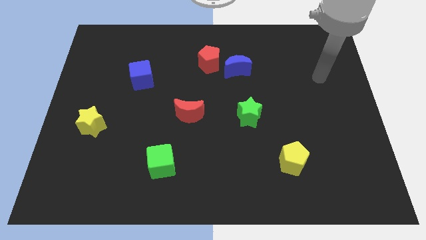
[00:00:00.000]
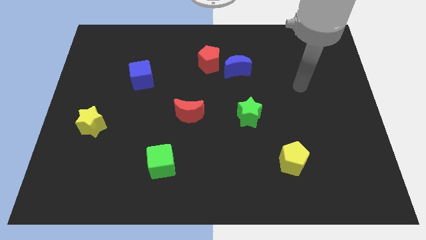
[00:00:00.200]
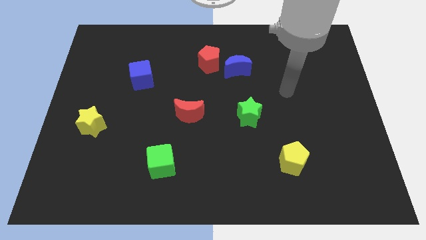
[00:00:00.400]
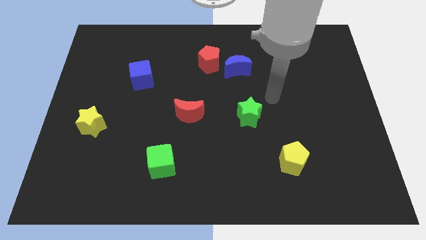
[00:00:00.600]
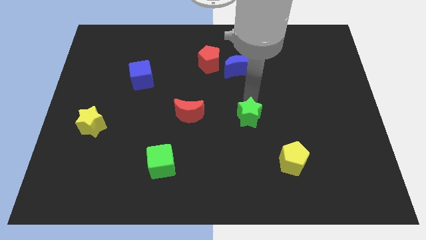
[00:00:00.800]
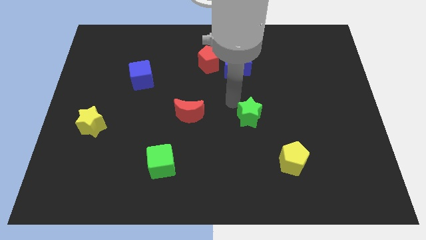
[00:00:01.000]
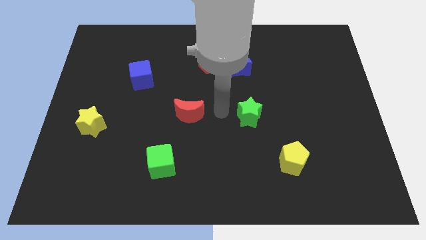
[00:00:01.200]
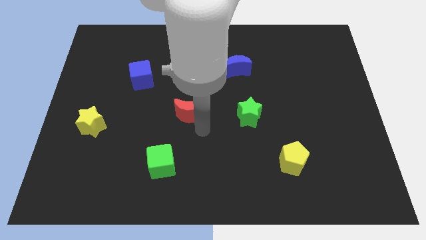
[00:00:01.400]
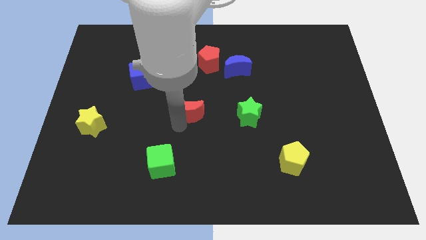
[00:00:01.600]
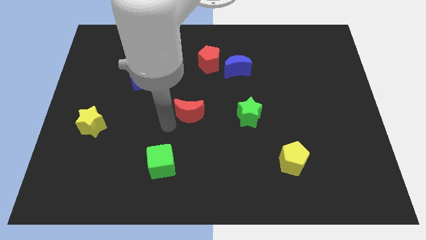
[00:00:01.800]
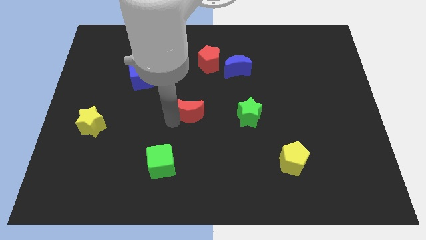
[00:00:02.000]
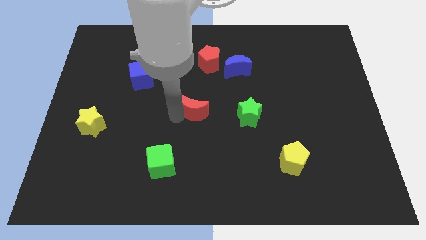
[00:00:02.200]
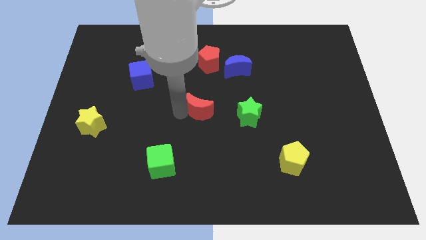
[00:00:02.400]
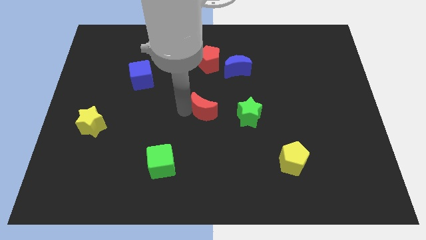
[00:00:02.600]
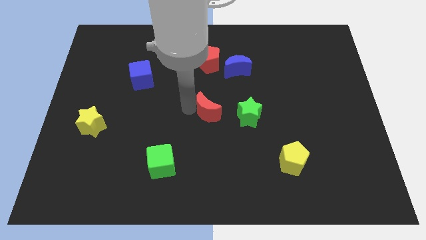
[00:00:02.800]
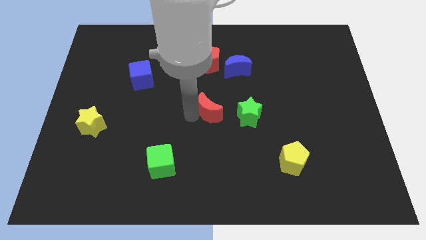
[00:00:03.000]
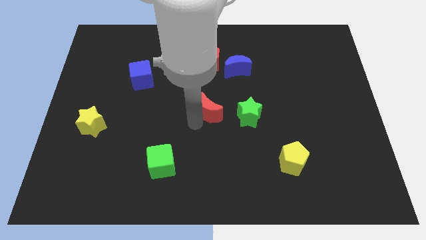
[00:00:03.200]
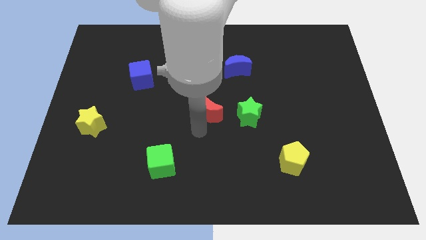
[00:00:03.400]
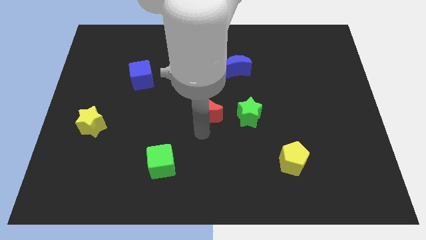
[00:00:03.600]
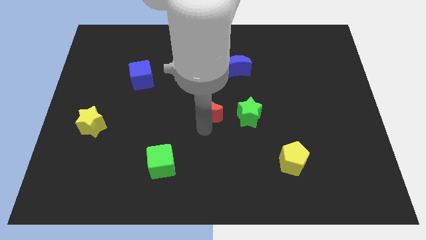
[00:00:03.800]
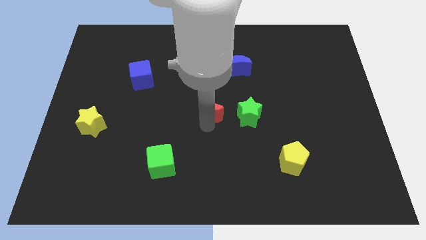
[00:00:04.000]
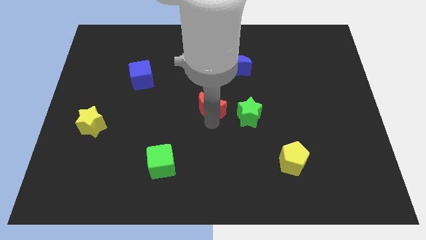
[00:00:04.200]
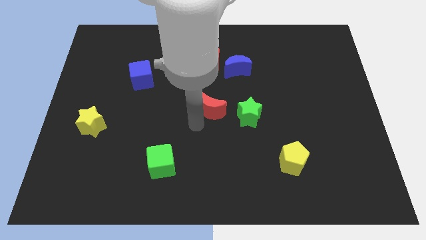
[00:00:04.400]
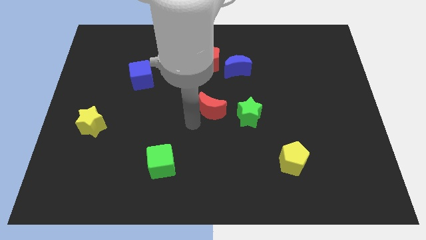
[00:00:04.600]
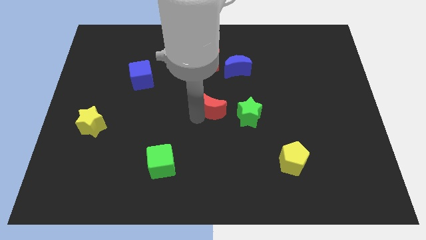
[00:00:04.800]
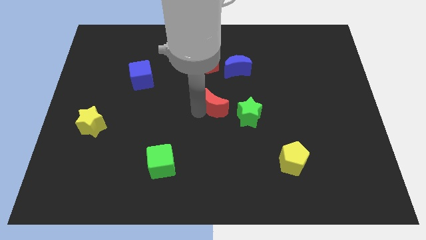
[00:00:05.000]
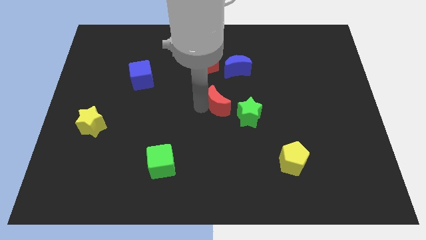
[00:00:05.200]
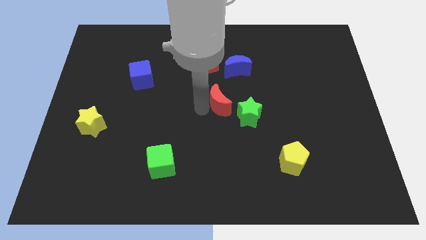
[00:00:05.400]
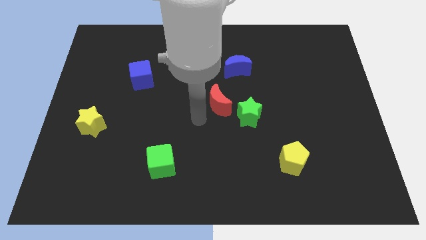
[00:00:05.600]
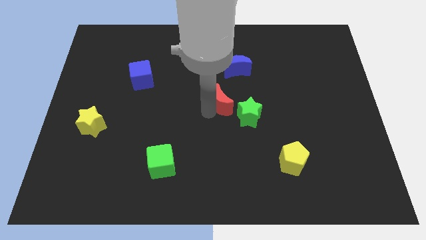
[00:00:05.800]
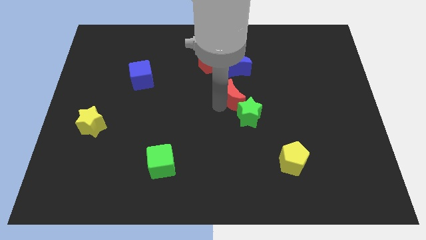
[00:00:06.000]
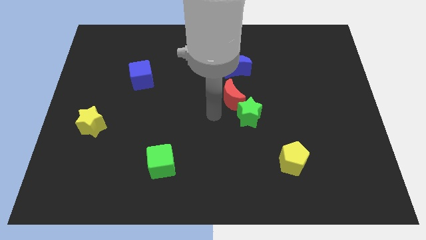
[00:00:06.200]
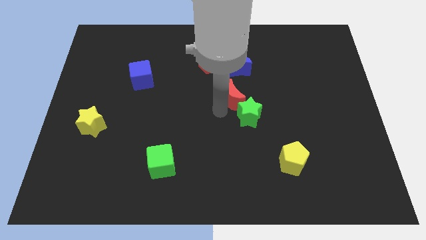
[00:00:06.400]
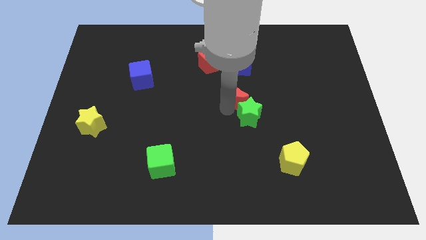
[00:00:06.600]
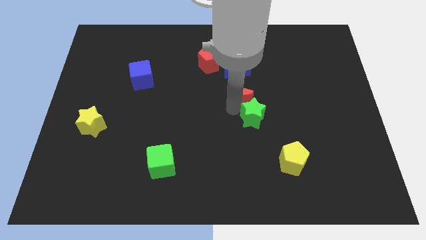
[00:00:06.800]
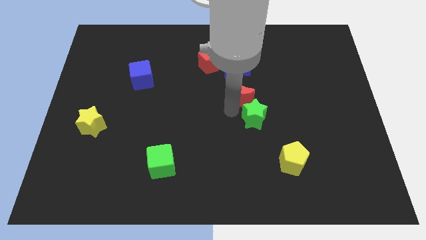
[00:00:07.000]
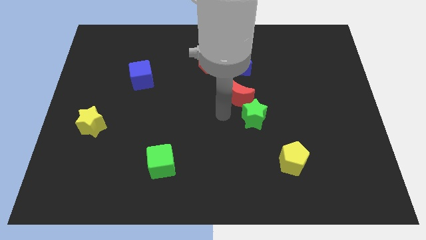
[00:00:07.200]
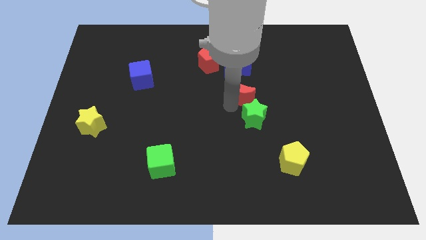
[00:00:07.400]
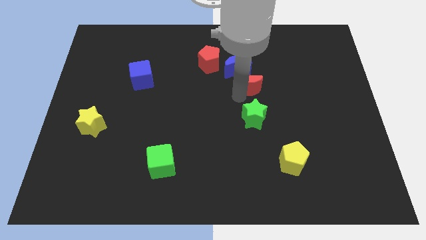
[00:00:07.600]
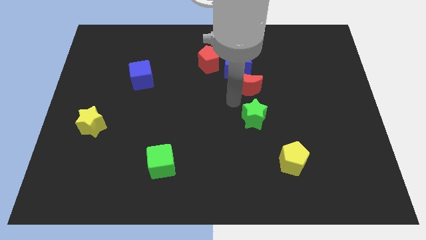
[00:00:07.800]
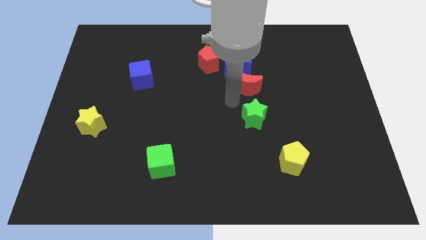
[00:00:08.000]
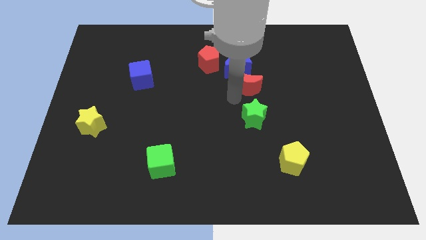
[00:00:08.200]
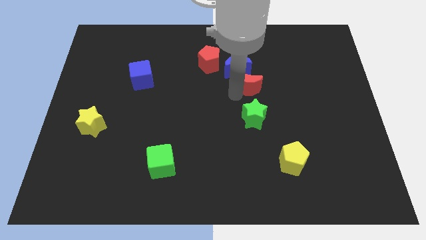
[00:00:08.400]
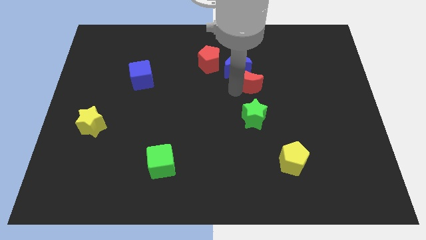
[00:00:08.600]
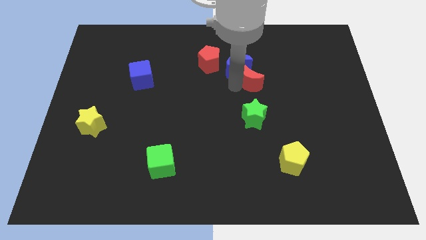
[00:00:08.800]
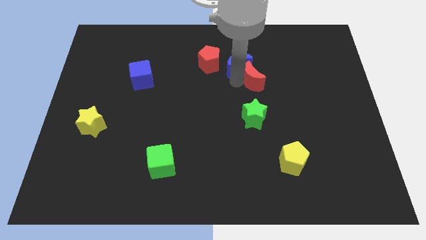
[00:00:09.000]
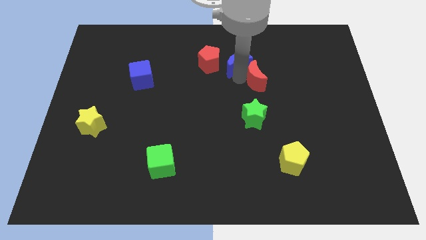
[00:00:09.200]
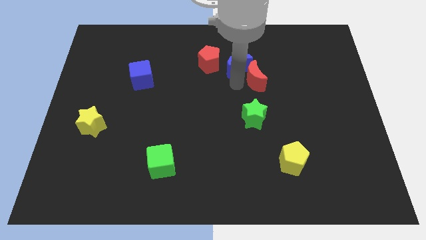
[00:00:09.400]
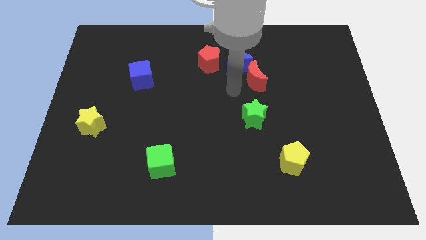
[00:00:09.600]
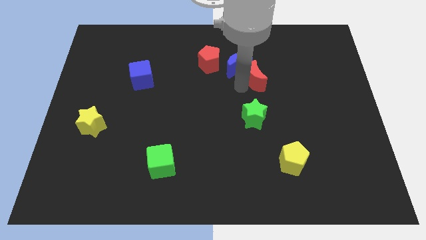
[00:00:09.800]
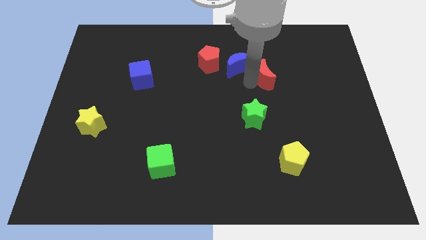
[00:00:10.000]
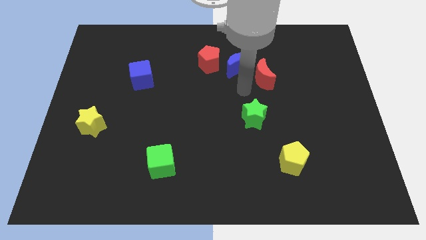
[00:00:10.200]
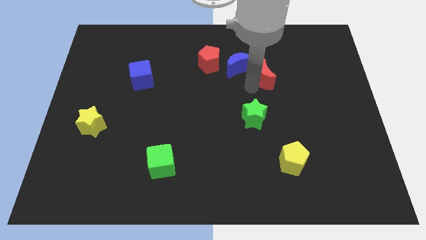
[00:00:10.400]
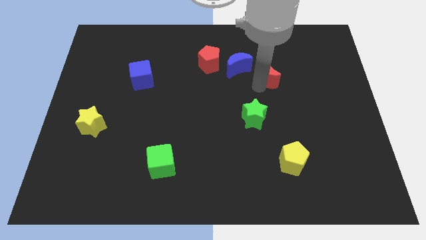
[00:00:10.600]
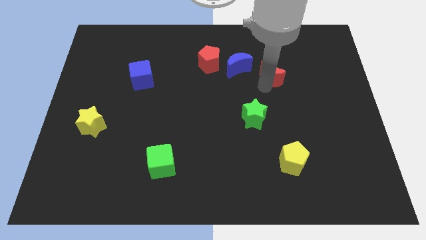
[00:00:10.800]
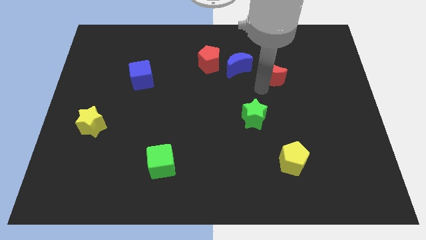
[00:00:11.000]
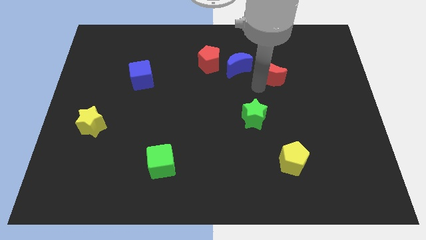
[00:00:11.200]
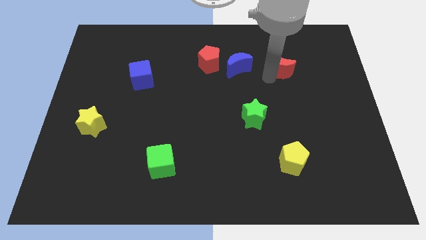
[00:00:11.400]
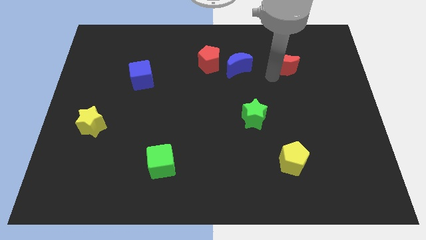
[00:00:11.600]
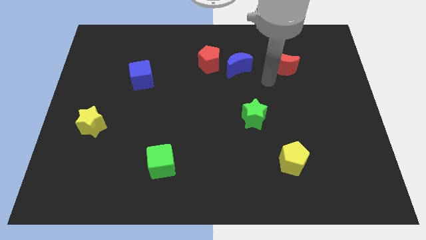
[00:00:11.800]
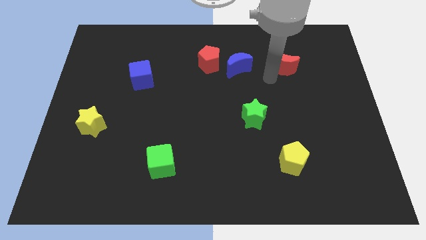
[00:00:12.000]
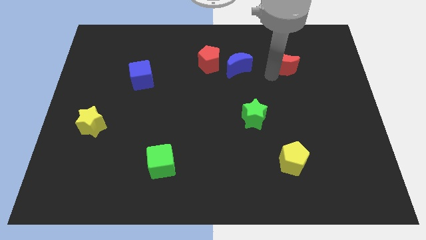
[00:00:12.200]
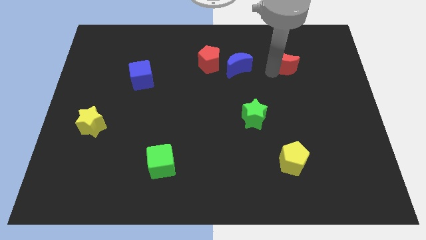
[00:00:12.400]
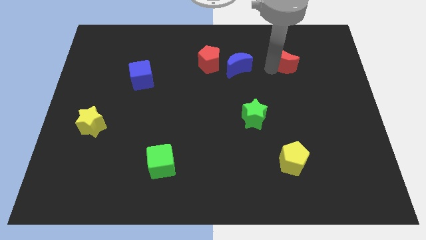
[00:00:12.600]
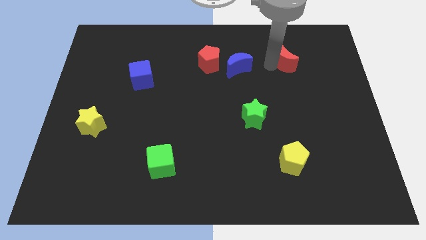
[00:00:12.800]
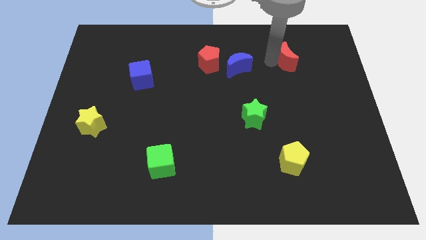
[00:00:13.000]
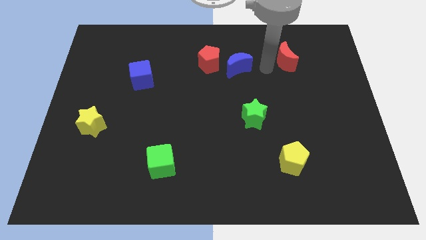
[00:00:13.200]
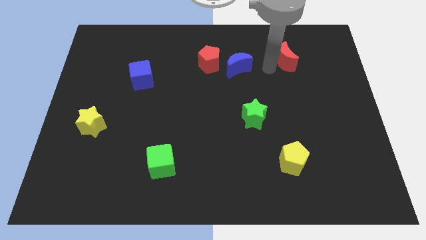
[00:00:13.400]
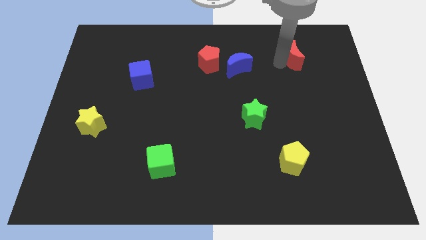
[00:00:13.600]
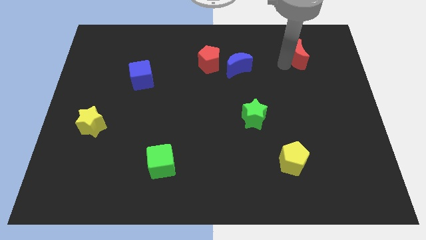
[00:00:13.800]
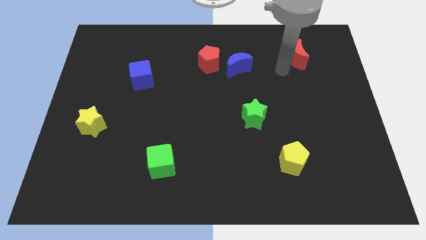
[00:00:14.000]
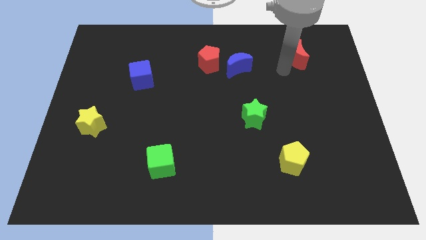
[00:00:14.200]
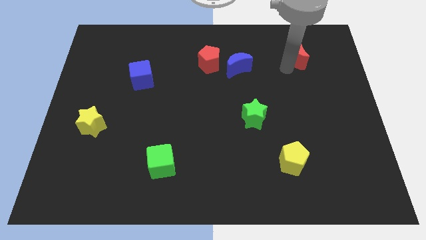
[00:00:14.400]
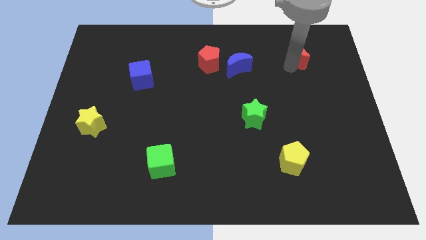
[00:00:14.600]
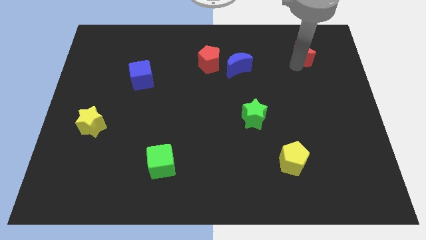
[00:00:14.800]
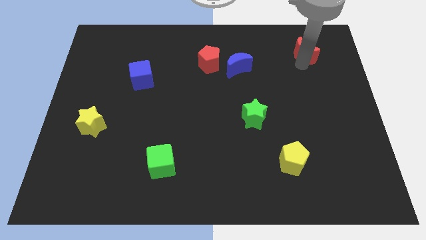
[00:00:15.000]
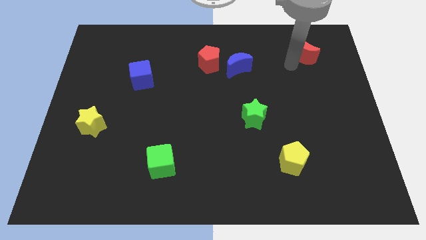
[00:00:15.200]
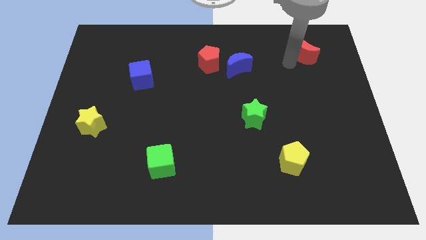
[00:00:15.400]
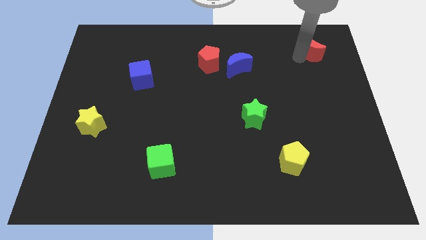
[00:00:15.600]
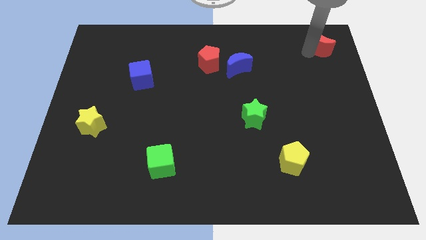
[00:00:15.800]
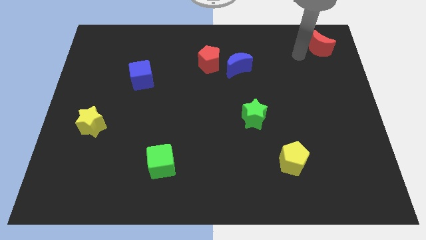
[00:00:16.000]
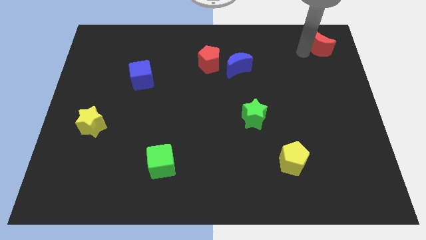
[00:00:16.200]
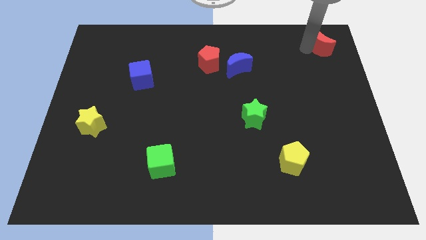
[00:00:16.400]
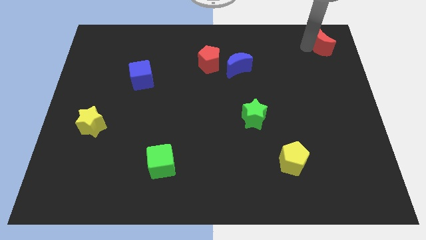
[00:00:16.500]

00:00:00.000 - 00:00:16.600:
push the red moon to the top right of the board
